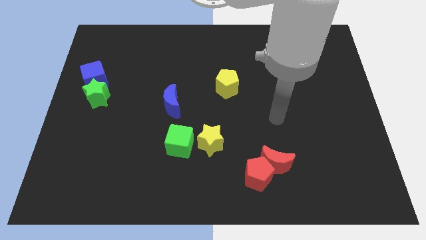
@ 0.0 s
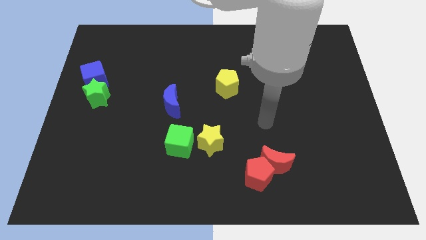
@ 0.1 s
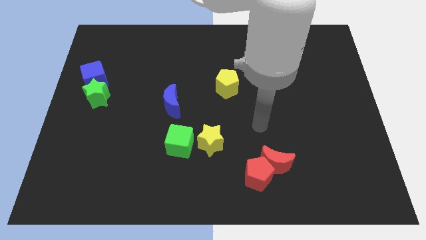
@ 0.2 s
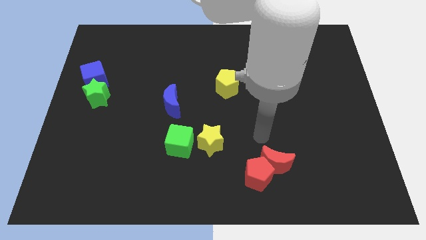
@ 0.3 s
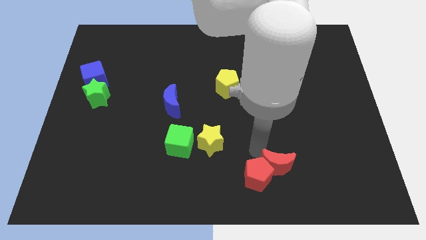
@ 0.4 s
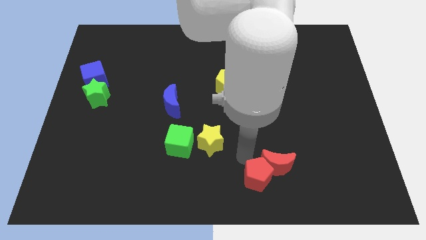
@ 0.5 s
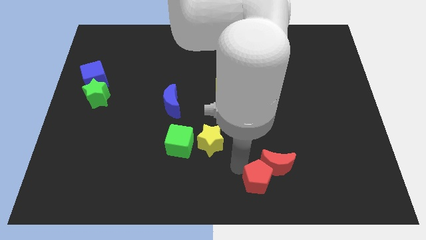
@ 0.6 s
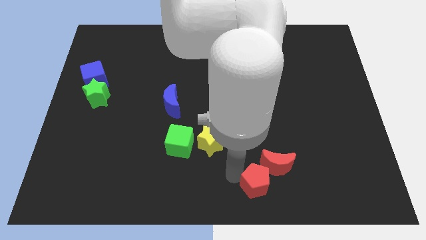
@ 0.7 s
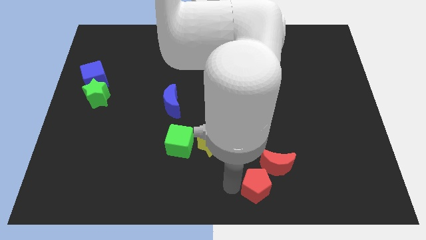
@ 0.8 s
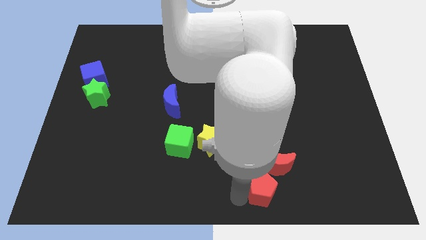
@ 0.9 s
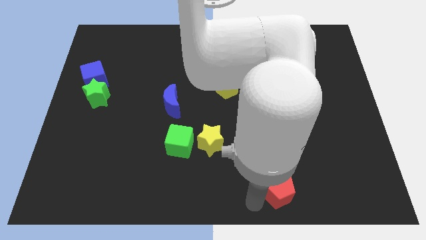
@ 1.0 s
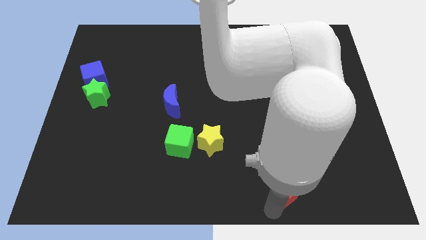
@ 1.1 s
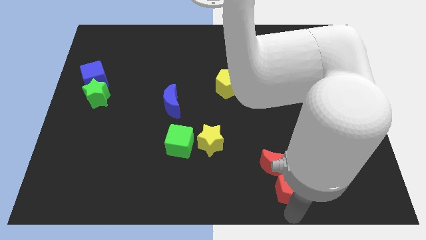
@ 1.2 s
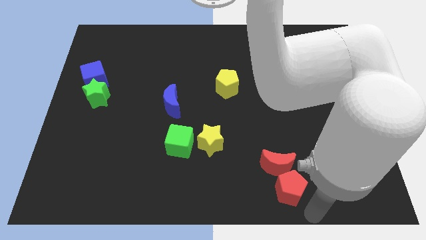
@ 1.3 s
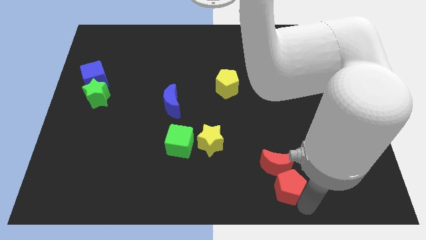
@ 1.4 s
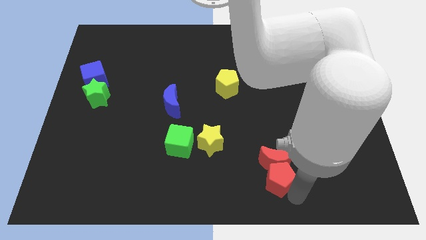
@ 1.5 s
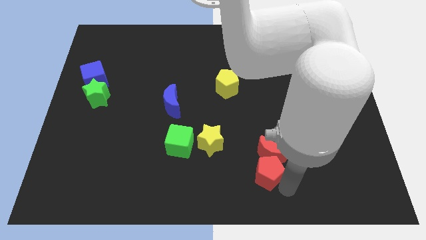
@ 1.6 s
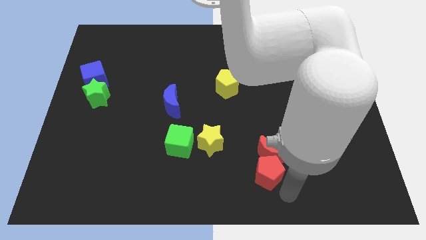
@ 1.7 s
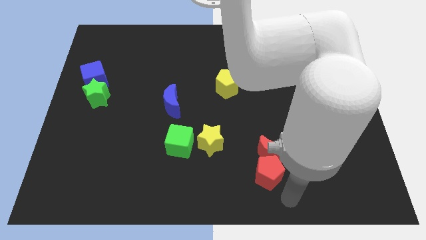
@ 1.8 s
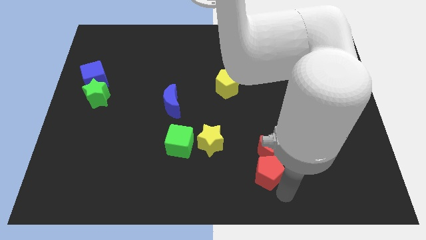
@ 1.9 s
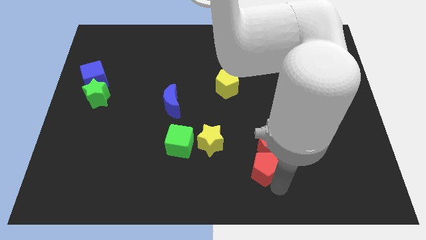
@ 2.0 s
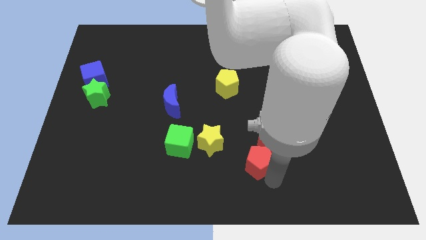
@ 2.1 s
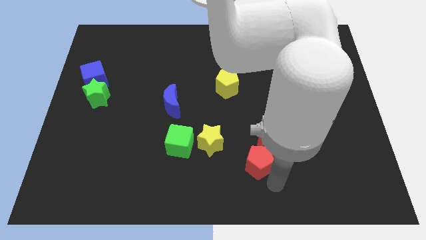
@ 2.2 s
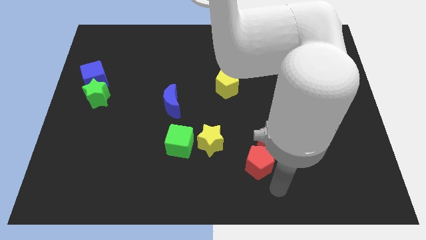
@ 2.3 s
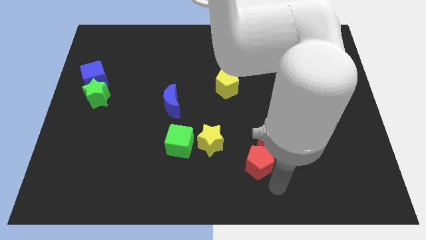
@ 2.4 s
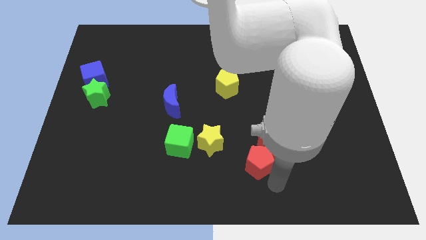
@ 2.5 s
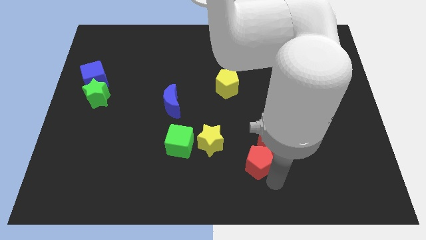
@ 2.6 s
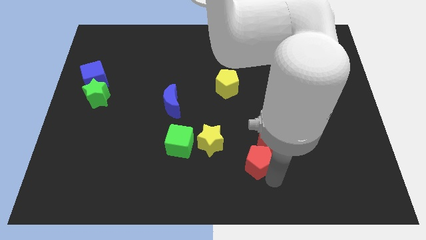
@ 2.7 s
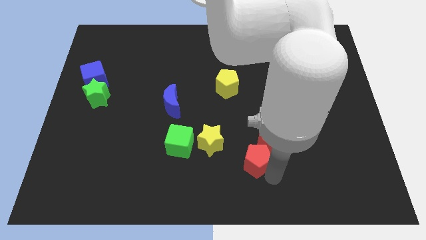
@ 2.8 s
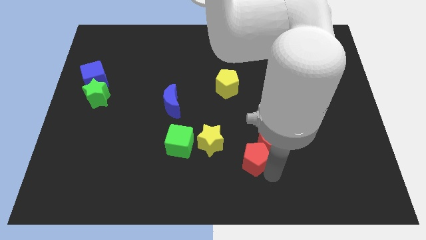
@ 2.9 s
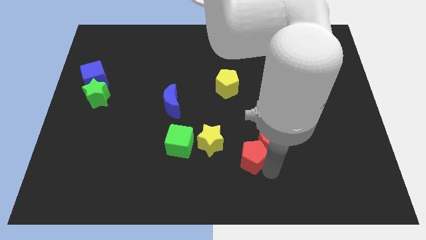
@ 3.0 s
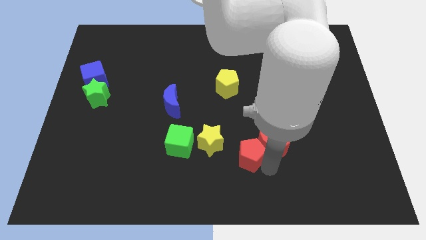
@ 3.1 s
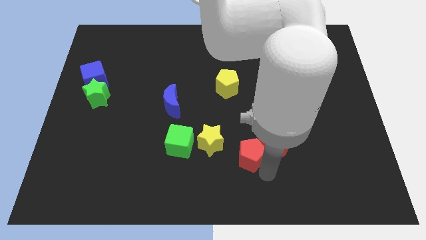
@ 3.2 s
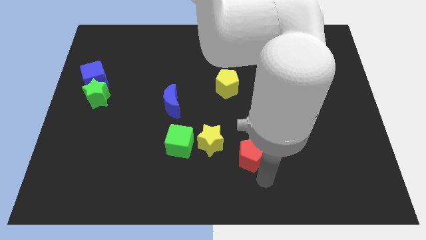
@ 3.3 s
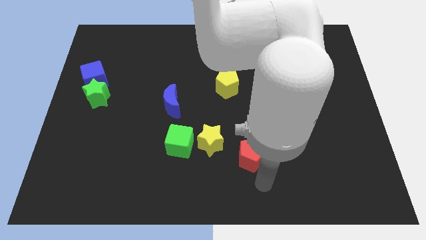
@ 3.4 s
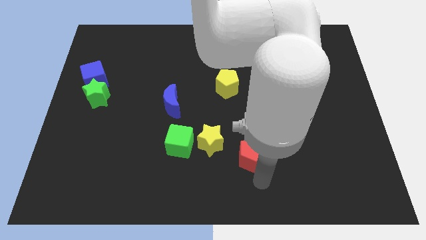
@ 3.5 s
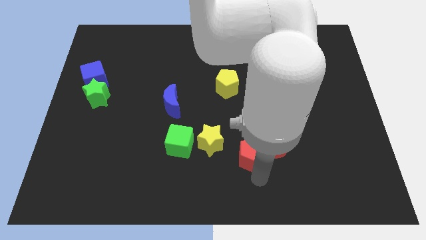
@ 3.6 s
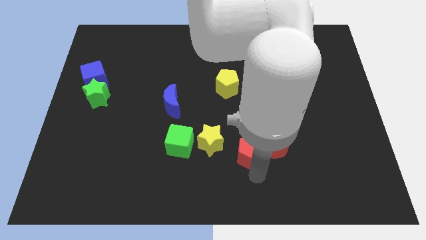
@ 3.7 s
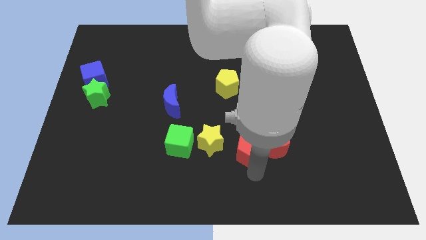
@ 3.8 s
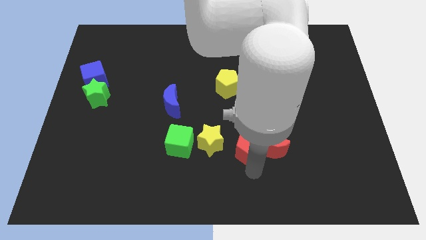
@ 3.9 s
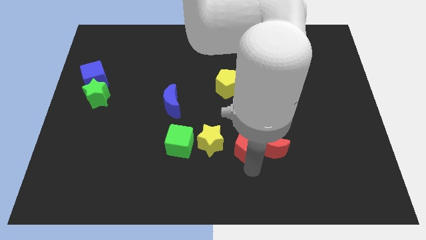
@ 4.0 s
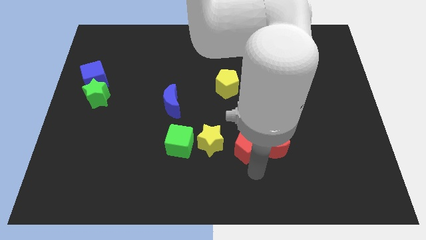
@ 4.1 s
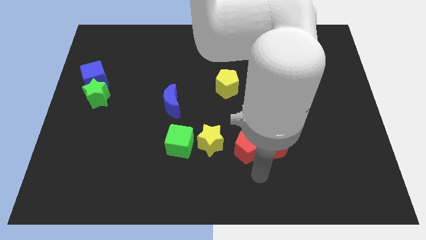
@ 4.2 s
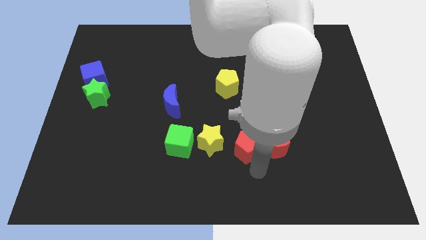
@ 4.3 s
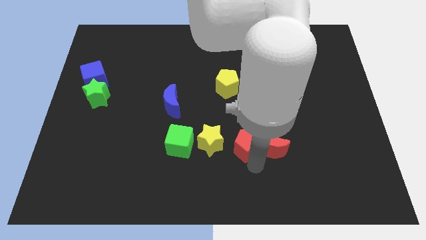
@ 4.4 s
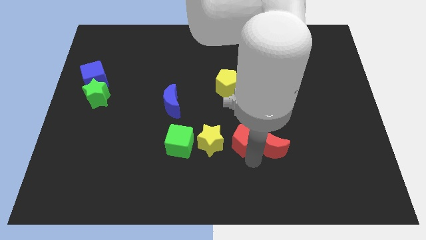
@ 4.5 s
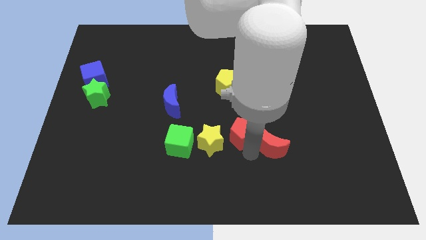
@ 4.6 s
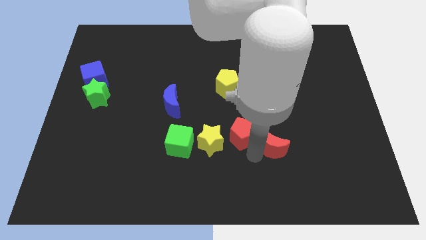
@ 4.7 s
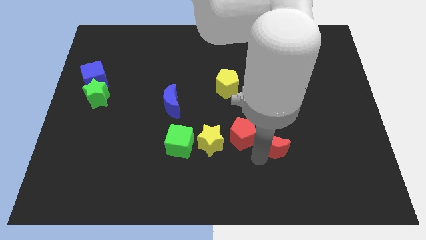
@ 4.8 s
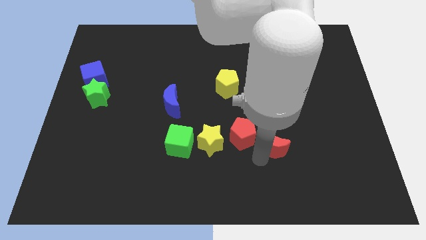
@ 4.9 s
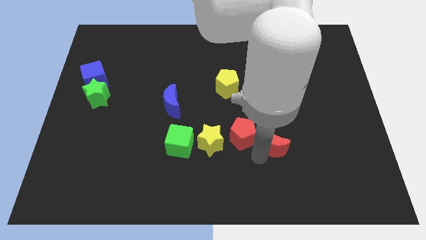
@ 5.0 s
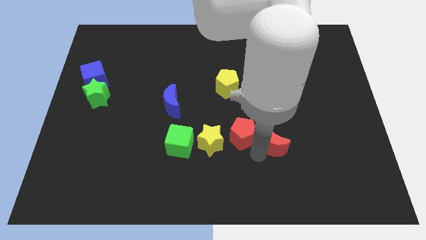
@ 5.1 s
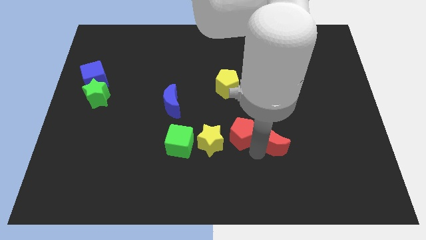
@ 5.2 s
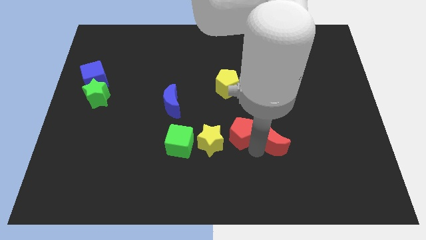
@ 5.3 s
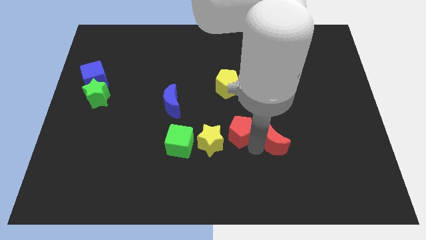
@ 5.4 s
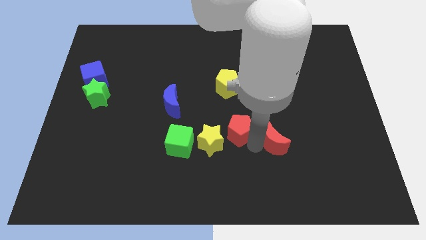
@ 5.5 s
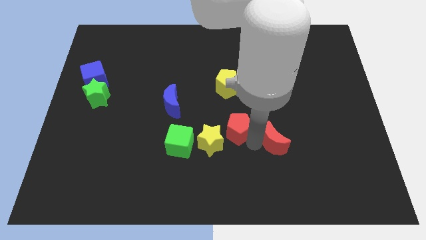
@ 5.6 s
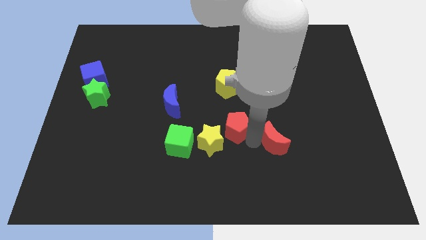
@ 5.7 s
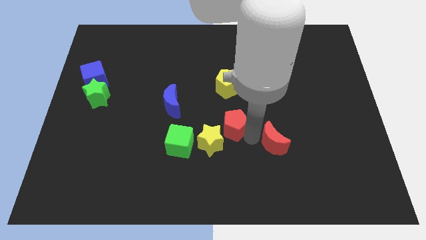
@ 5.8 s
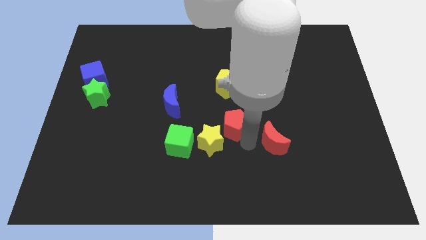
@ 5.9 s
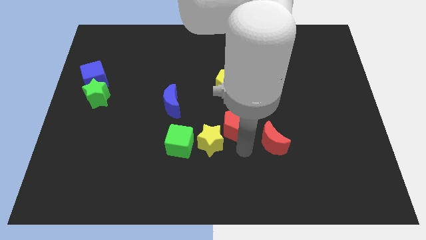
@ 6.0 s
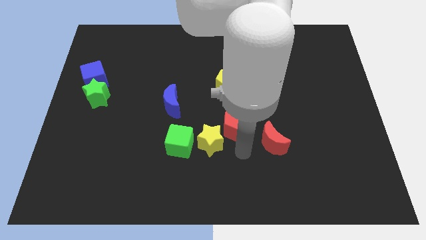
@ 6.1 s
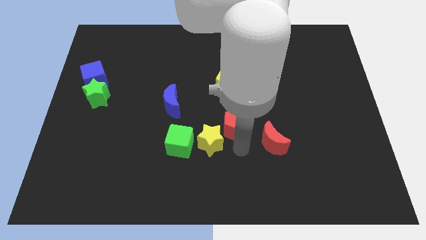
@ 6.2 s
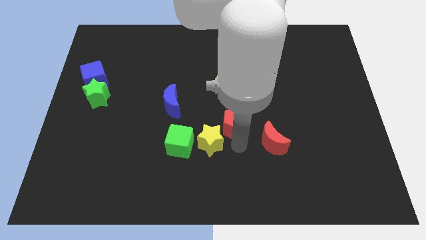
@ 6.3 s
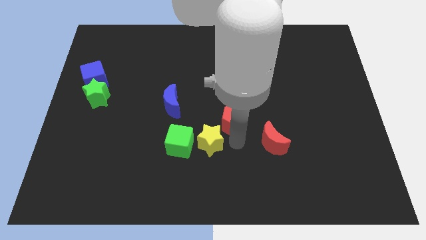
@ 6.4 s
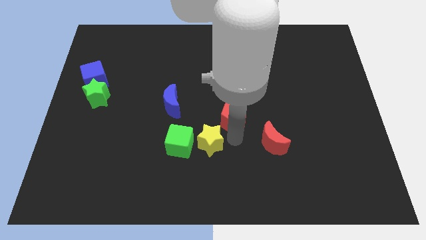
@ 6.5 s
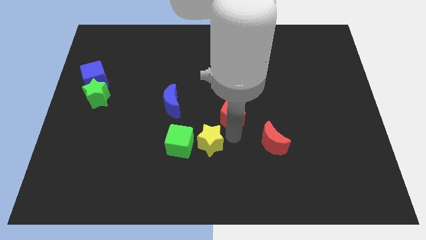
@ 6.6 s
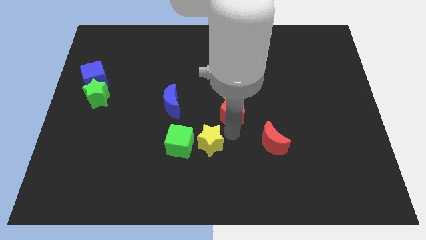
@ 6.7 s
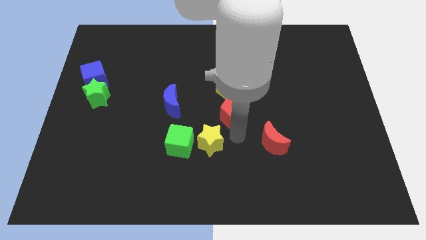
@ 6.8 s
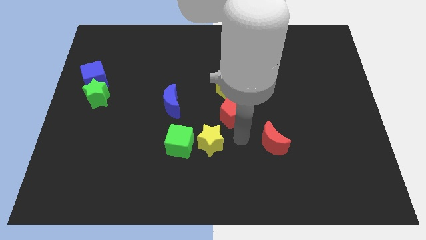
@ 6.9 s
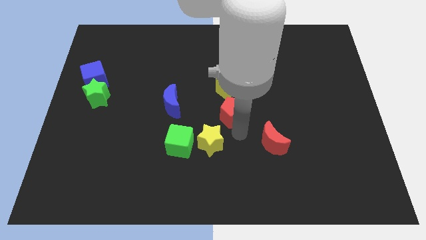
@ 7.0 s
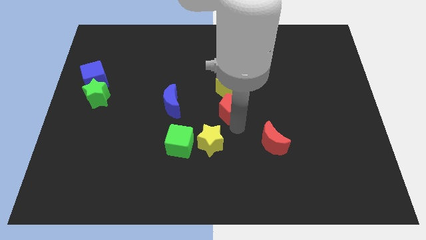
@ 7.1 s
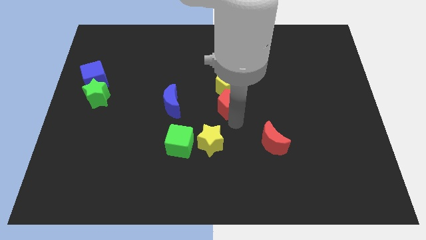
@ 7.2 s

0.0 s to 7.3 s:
push the red pentagon next to the yellow pentagon
